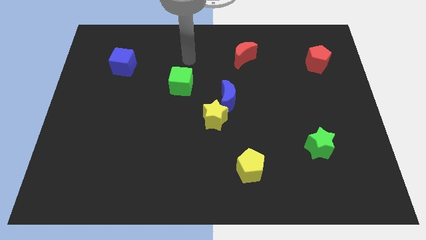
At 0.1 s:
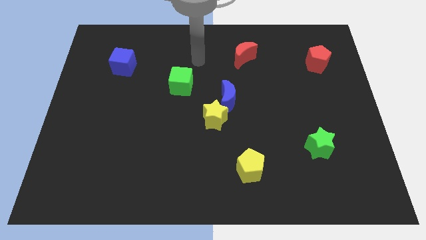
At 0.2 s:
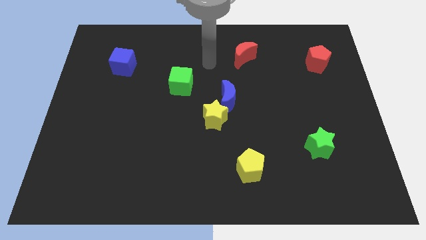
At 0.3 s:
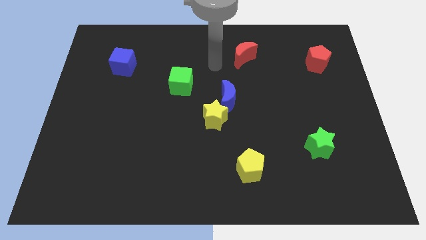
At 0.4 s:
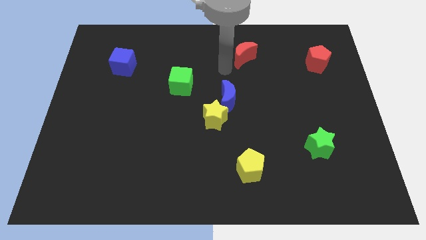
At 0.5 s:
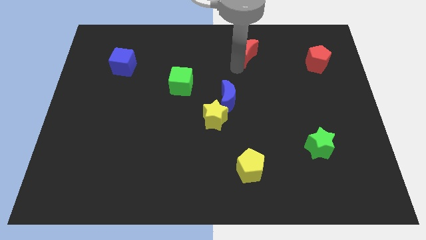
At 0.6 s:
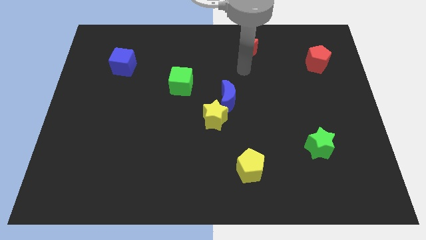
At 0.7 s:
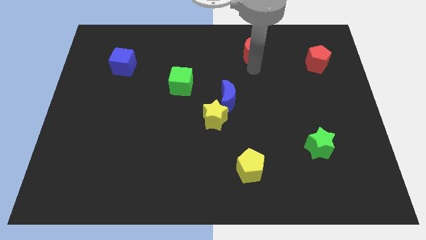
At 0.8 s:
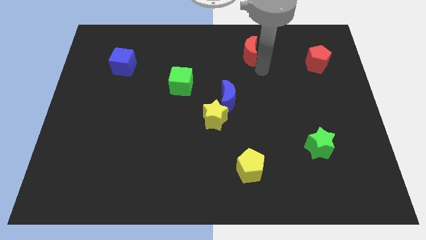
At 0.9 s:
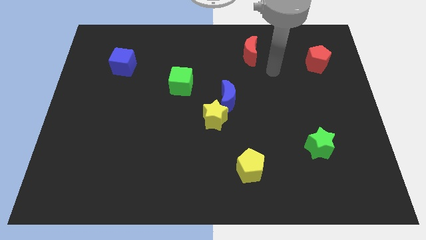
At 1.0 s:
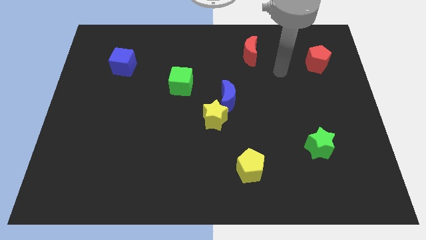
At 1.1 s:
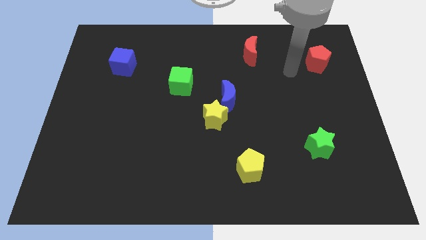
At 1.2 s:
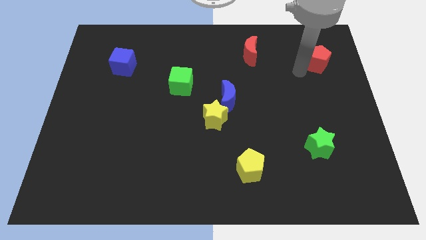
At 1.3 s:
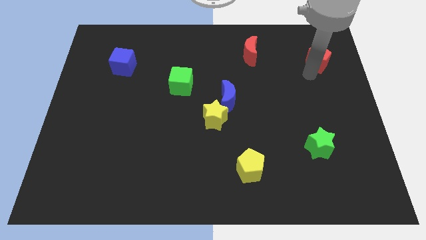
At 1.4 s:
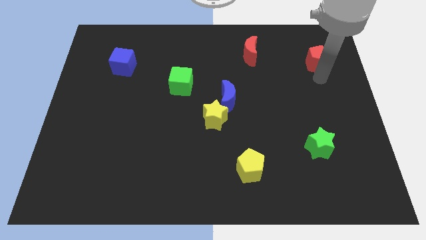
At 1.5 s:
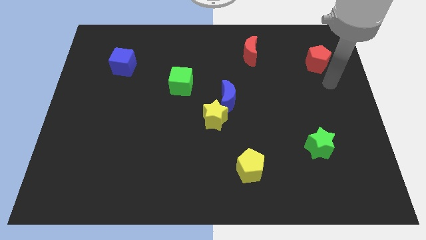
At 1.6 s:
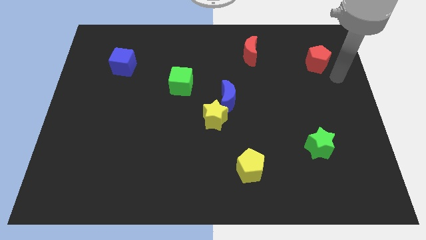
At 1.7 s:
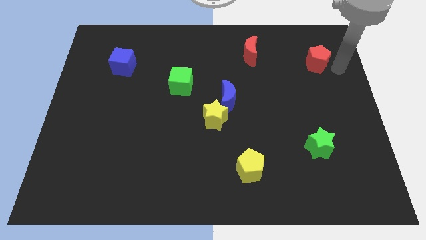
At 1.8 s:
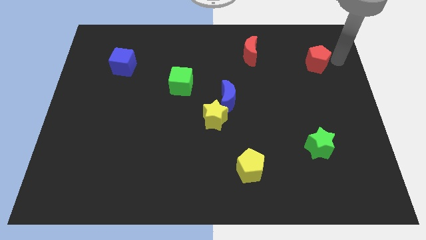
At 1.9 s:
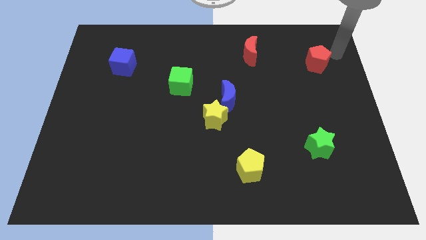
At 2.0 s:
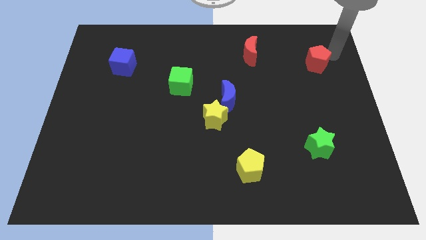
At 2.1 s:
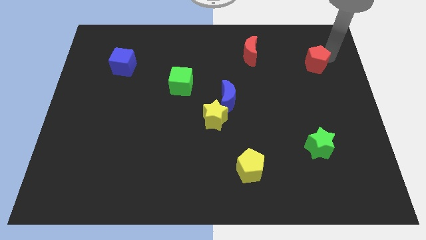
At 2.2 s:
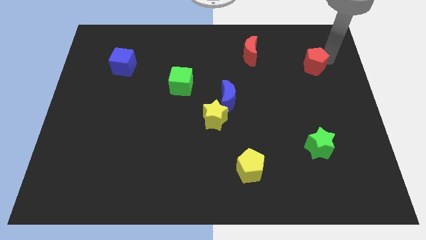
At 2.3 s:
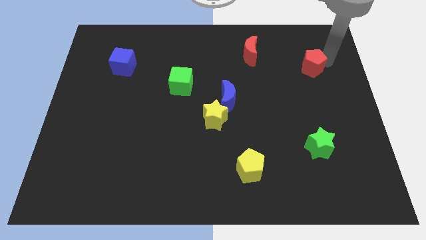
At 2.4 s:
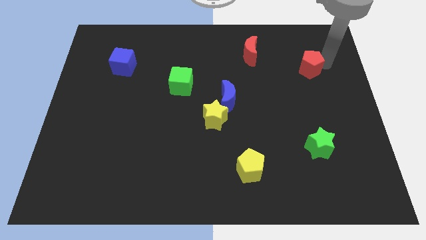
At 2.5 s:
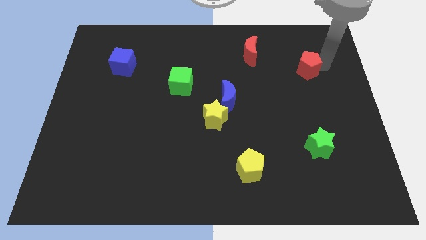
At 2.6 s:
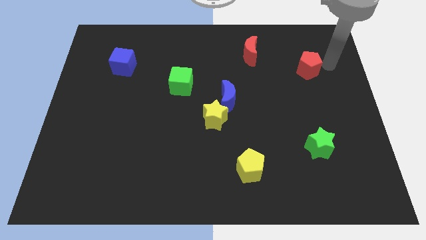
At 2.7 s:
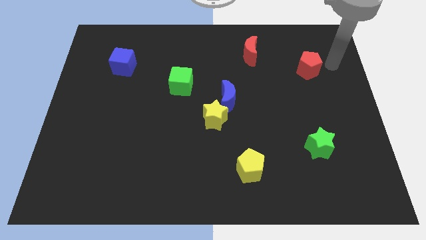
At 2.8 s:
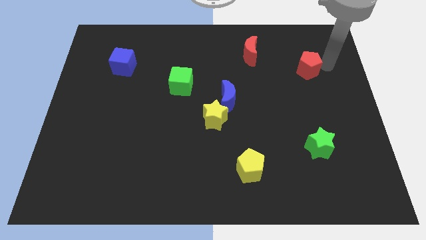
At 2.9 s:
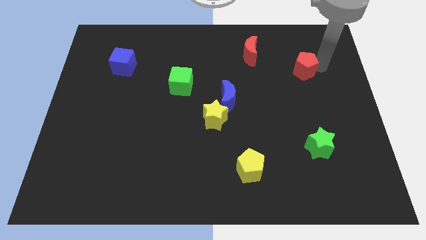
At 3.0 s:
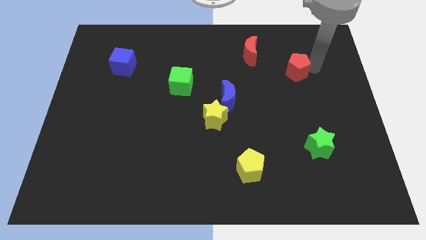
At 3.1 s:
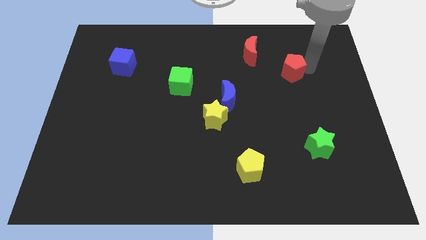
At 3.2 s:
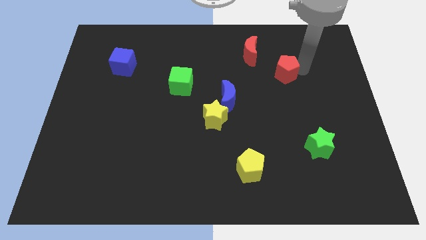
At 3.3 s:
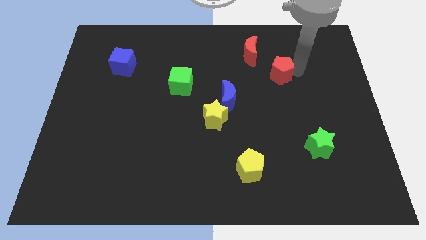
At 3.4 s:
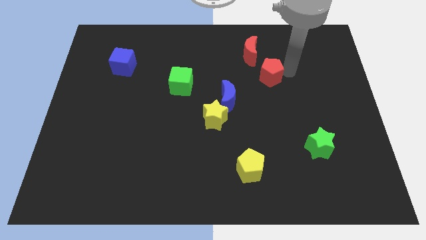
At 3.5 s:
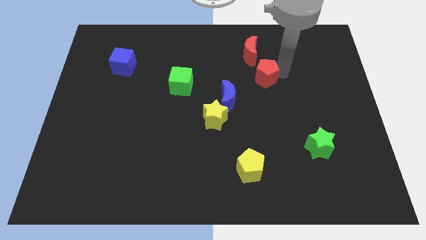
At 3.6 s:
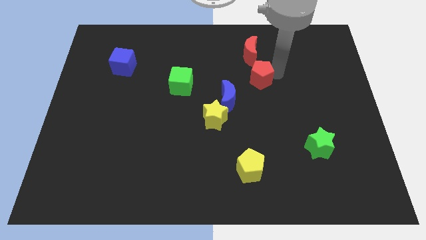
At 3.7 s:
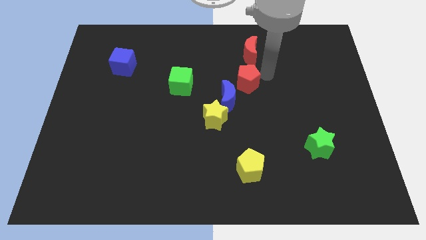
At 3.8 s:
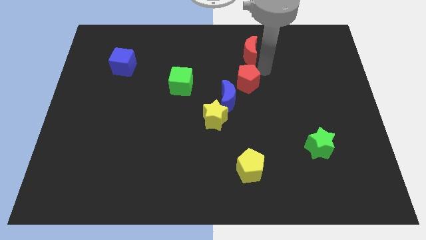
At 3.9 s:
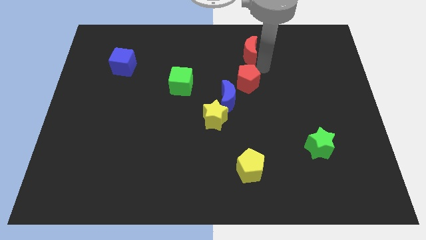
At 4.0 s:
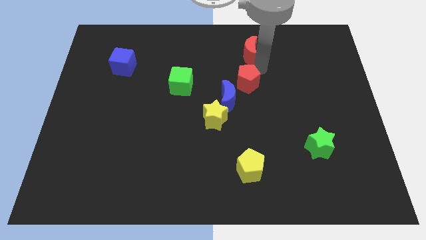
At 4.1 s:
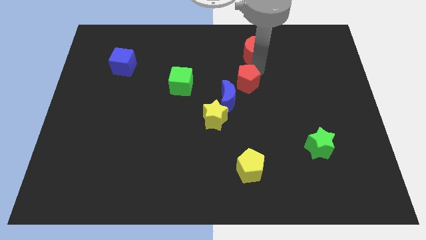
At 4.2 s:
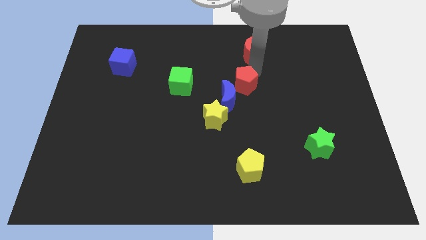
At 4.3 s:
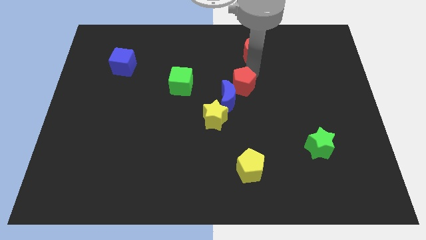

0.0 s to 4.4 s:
move the red pentagon next to the blue moon

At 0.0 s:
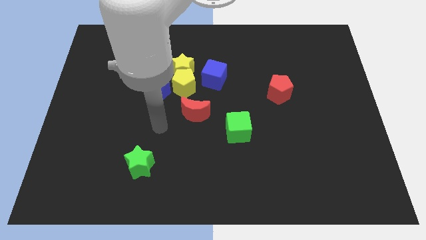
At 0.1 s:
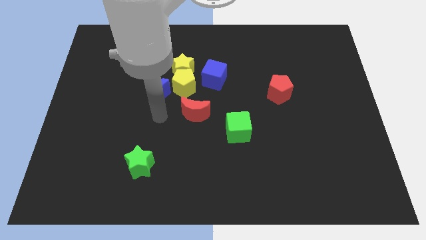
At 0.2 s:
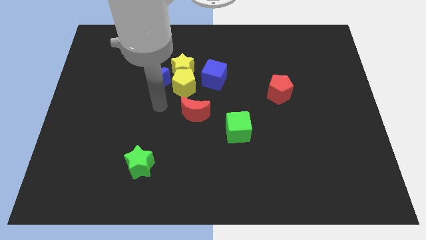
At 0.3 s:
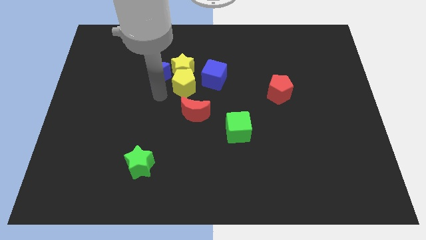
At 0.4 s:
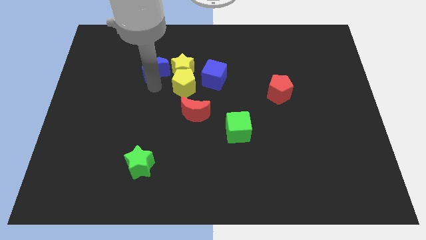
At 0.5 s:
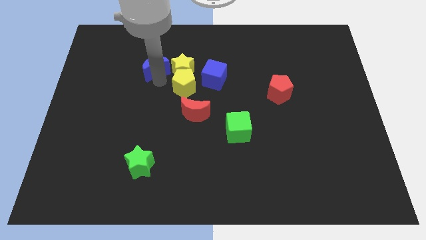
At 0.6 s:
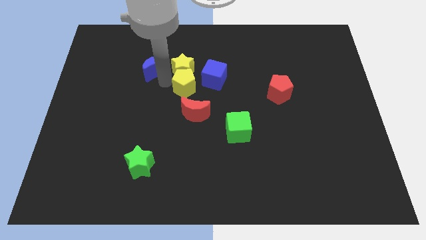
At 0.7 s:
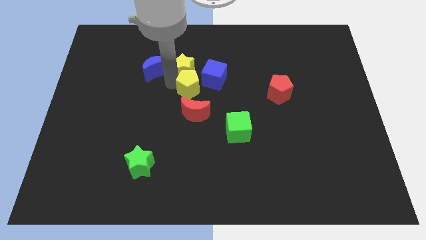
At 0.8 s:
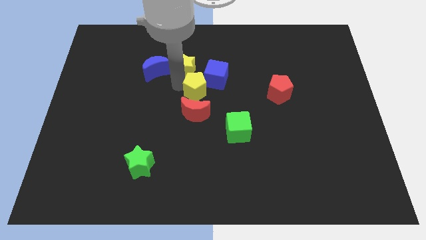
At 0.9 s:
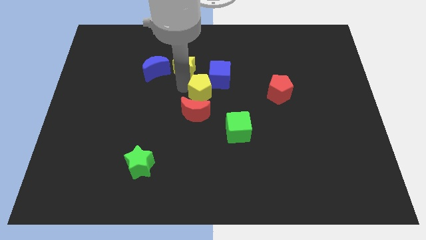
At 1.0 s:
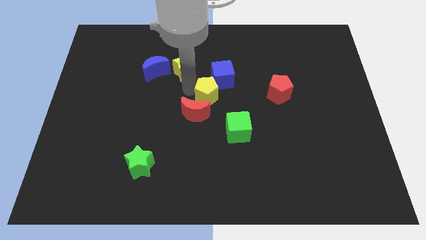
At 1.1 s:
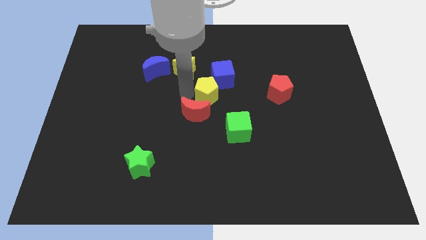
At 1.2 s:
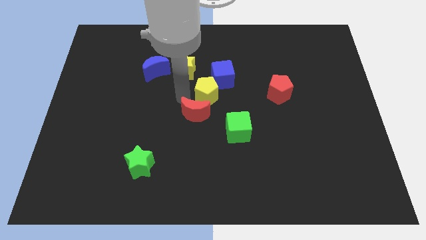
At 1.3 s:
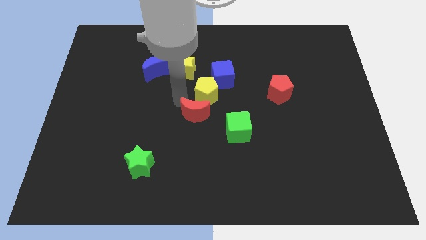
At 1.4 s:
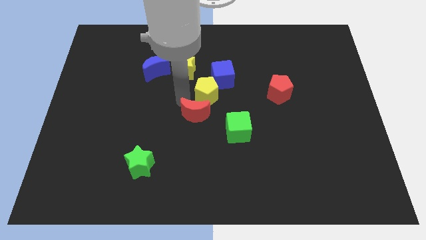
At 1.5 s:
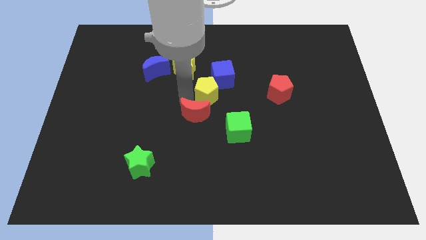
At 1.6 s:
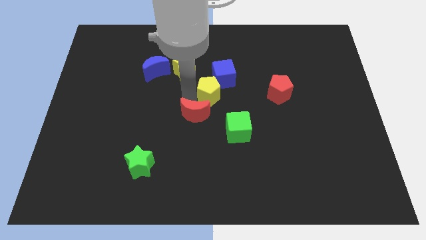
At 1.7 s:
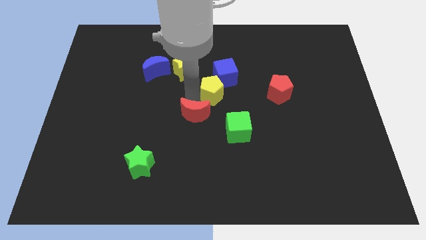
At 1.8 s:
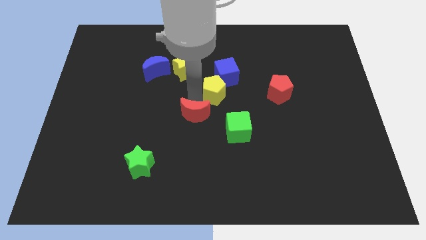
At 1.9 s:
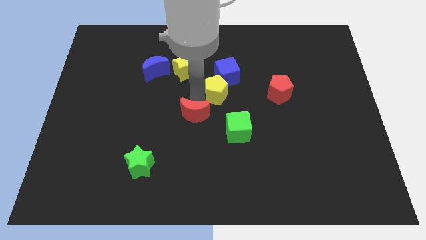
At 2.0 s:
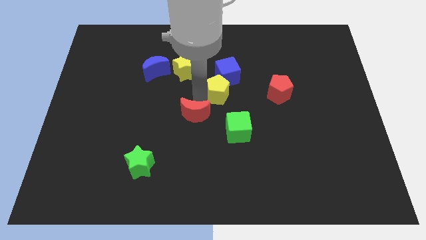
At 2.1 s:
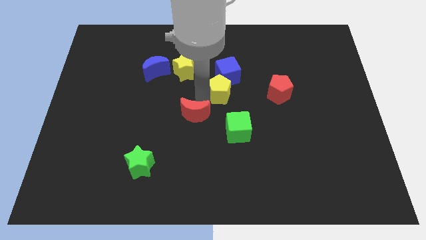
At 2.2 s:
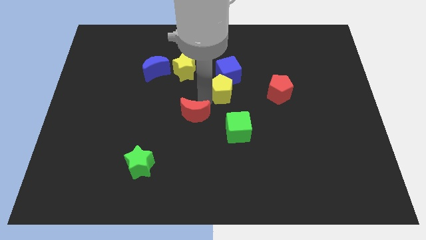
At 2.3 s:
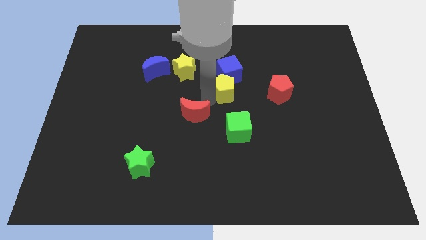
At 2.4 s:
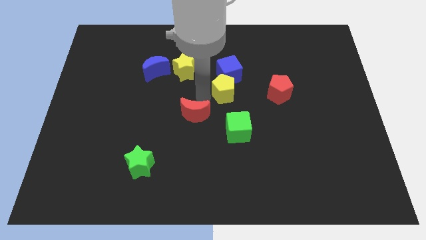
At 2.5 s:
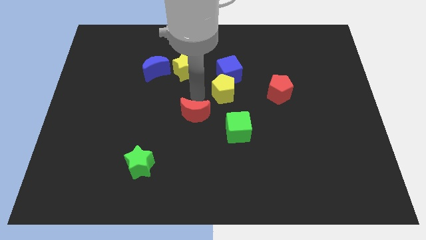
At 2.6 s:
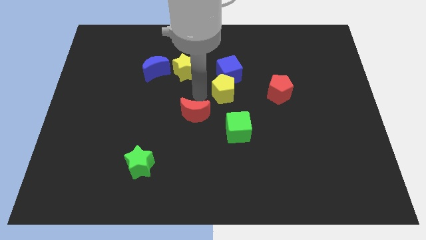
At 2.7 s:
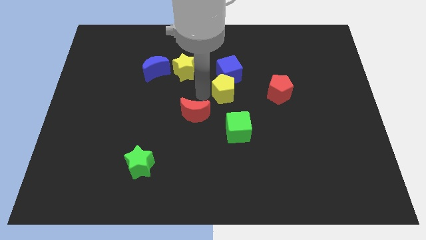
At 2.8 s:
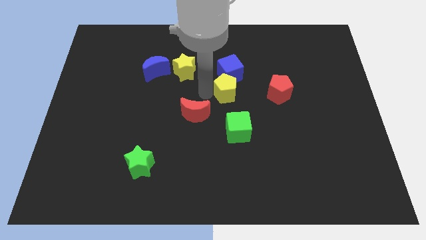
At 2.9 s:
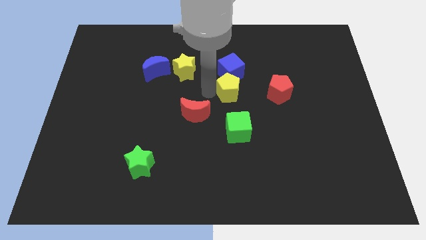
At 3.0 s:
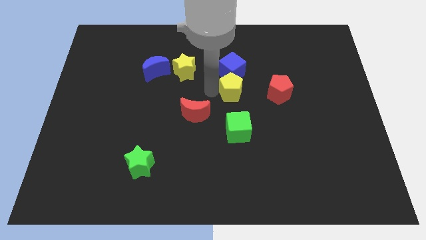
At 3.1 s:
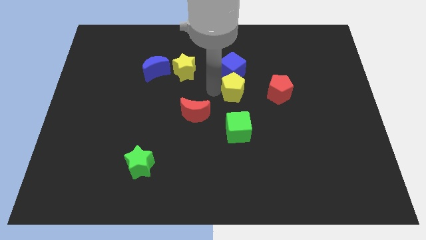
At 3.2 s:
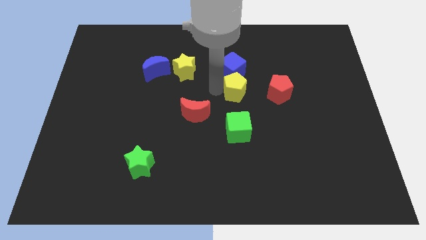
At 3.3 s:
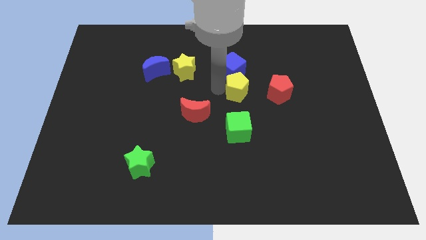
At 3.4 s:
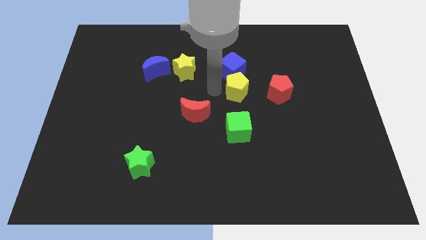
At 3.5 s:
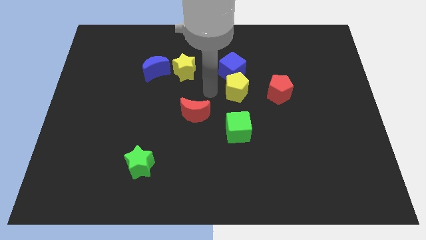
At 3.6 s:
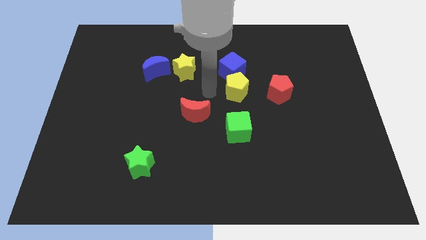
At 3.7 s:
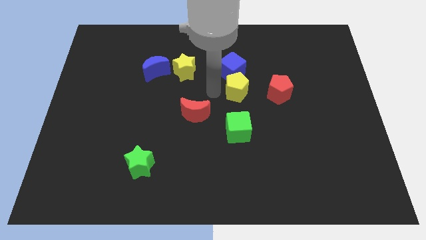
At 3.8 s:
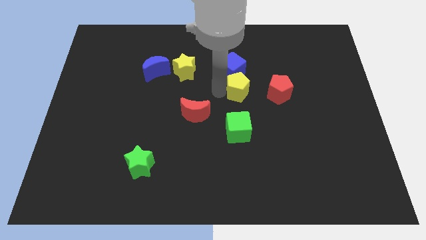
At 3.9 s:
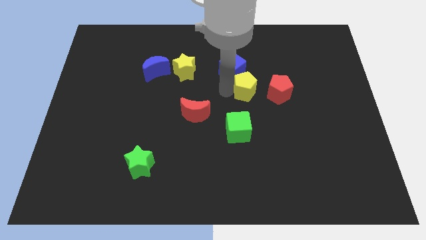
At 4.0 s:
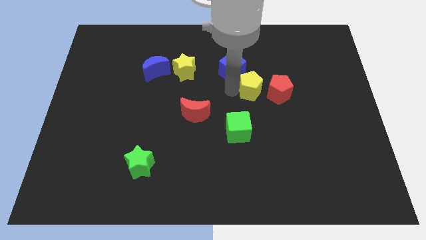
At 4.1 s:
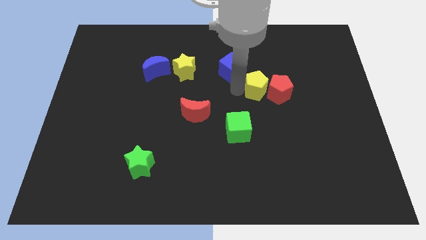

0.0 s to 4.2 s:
slide the yellow pentagon next to the red pentagon
